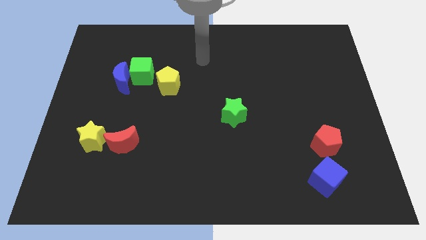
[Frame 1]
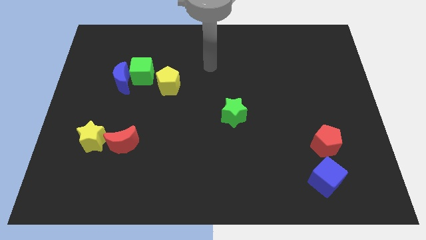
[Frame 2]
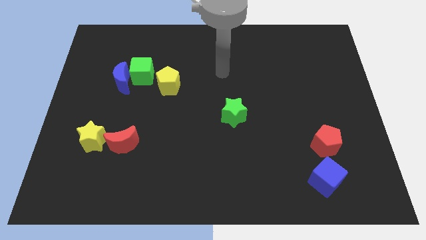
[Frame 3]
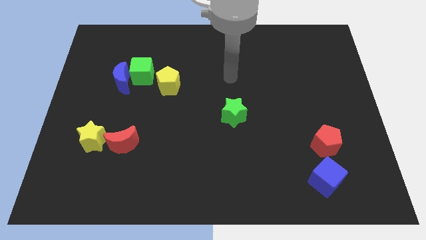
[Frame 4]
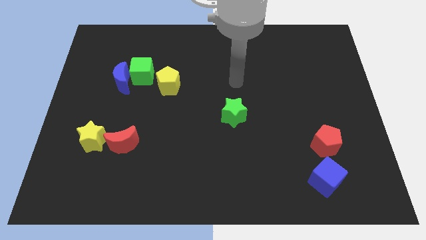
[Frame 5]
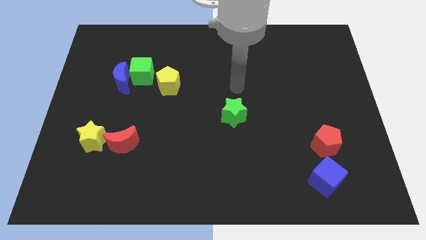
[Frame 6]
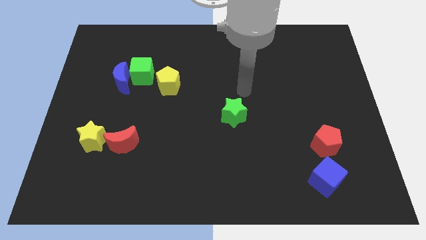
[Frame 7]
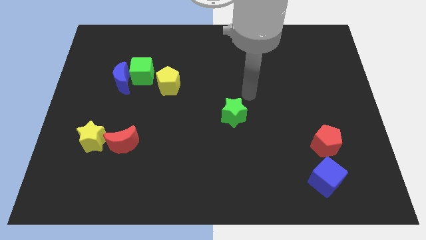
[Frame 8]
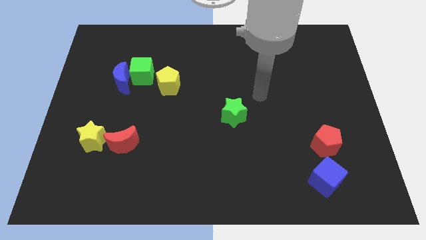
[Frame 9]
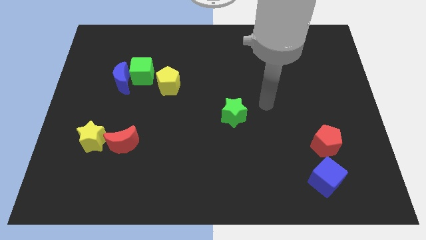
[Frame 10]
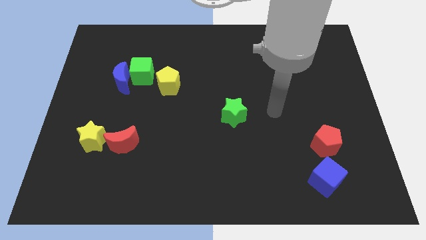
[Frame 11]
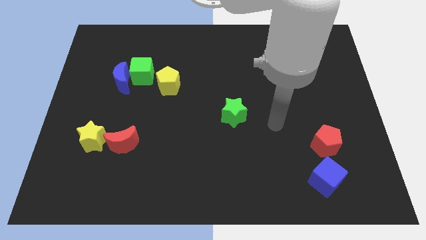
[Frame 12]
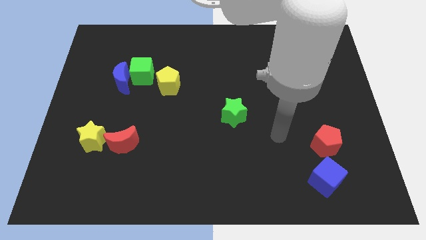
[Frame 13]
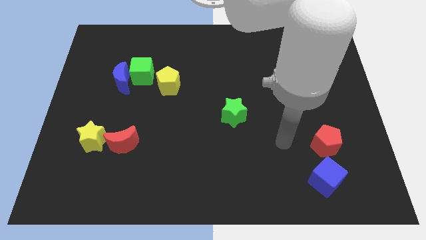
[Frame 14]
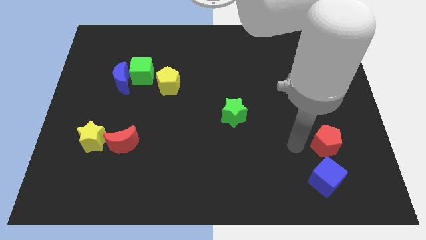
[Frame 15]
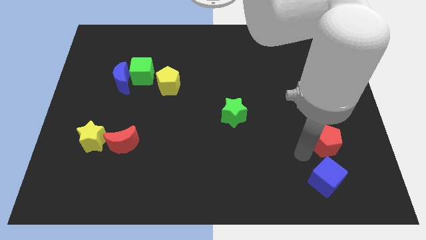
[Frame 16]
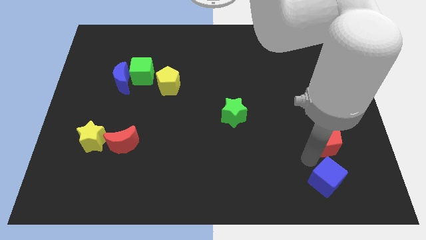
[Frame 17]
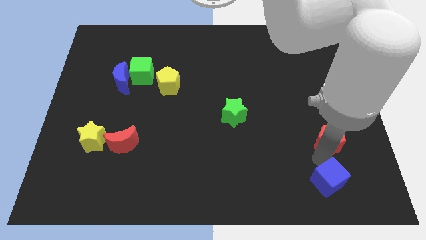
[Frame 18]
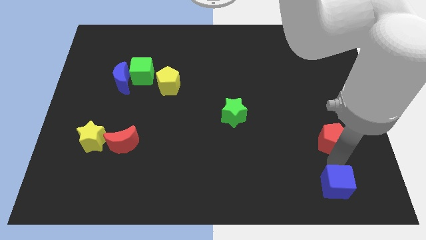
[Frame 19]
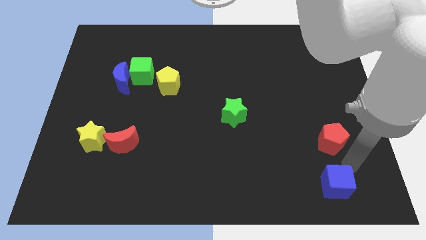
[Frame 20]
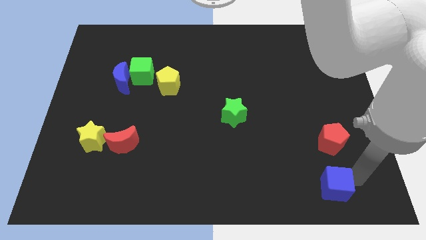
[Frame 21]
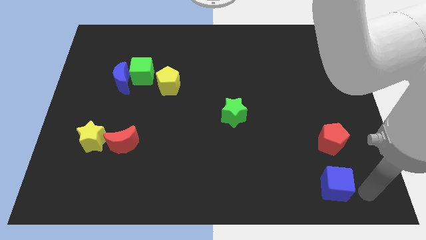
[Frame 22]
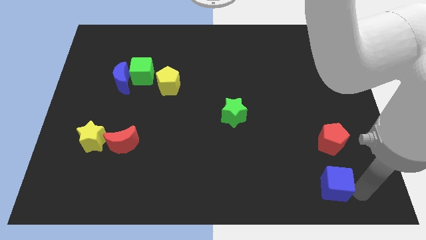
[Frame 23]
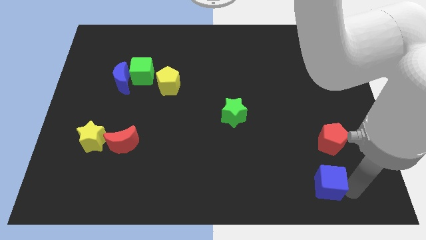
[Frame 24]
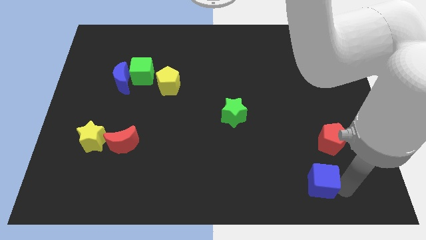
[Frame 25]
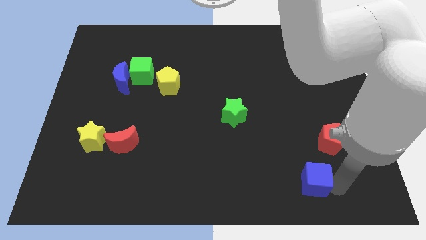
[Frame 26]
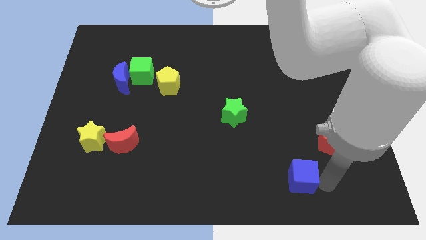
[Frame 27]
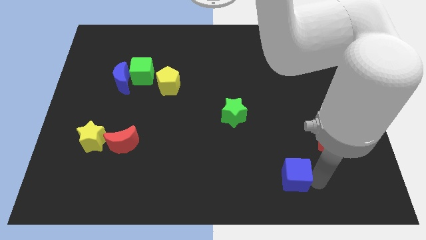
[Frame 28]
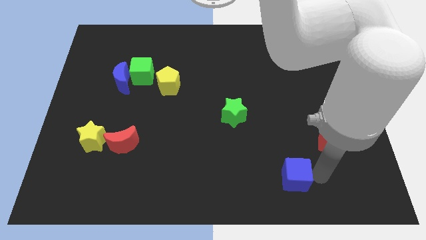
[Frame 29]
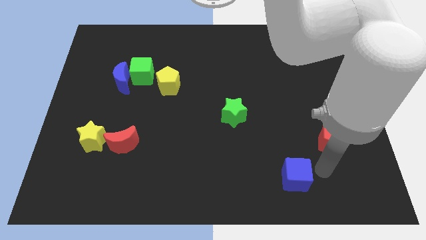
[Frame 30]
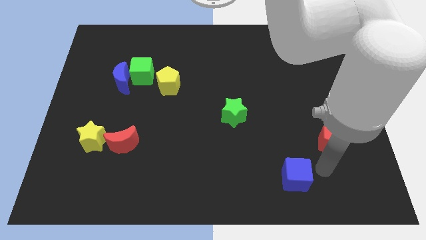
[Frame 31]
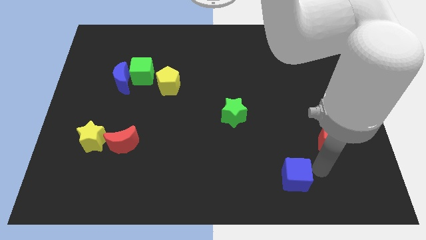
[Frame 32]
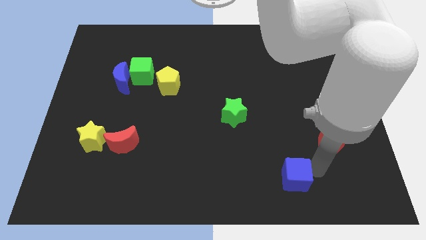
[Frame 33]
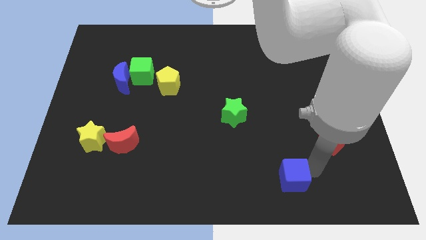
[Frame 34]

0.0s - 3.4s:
move the blue cube a bit left

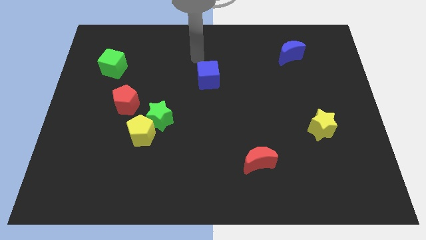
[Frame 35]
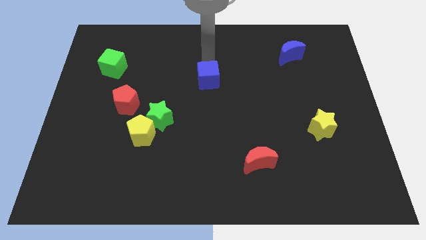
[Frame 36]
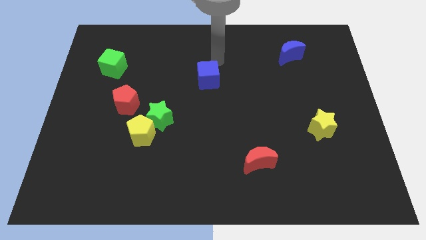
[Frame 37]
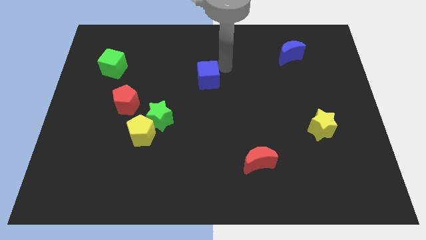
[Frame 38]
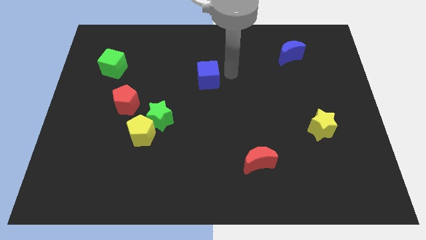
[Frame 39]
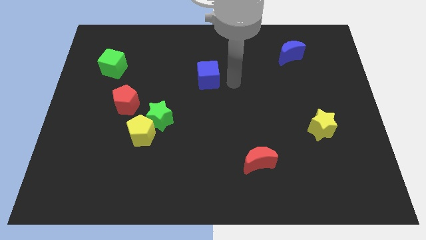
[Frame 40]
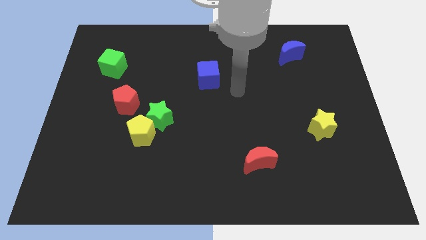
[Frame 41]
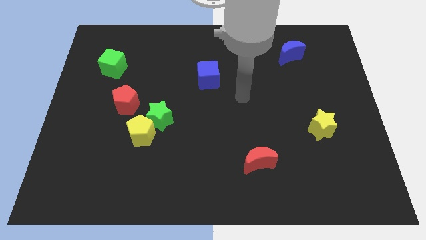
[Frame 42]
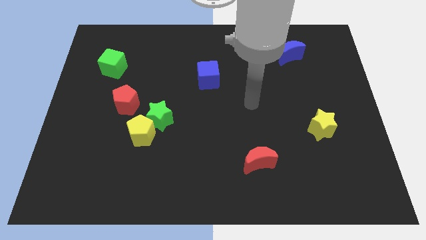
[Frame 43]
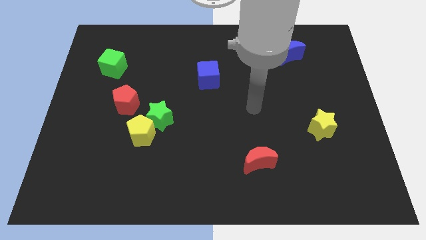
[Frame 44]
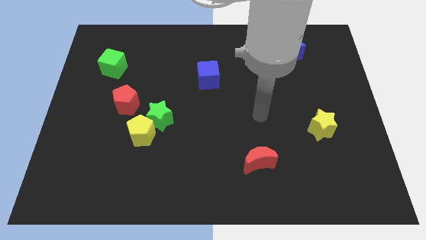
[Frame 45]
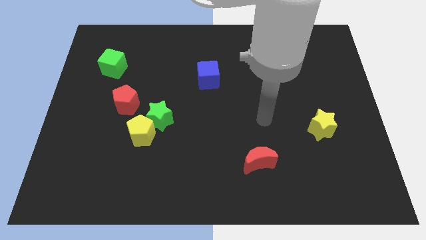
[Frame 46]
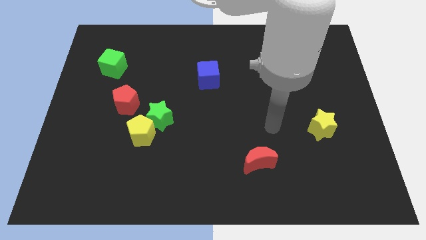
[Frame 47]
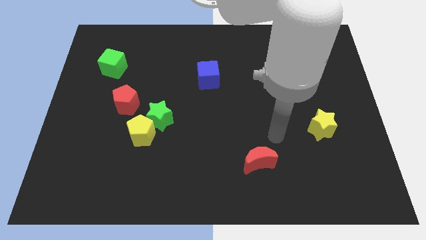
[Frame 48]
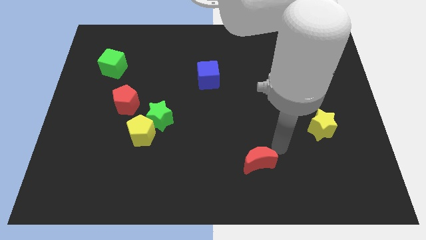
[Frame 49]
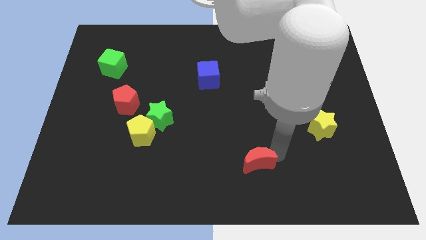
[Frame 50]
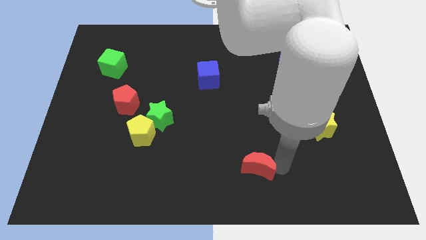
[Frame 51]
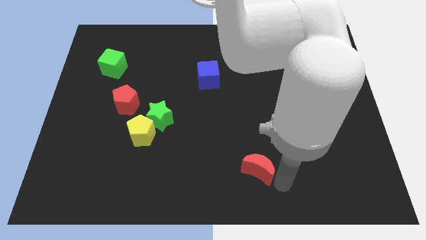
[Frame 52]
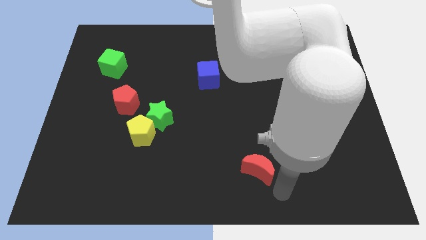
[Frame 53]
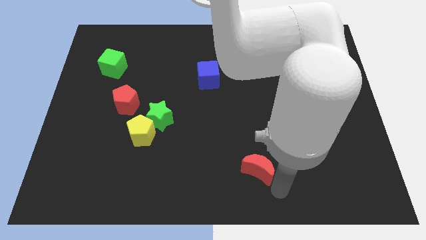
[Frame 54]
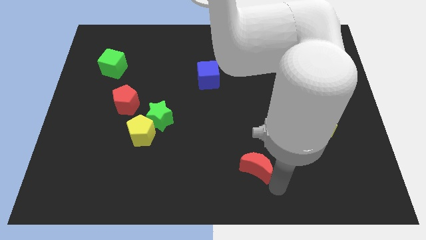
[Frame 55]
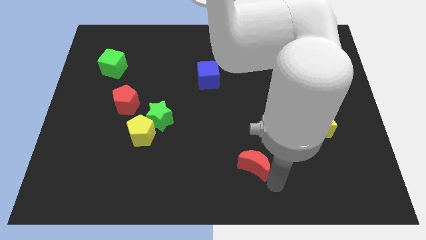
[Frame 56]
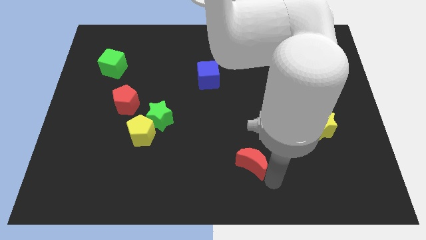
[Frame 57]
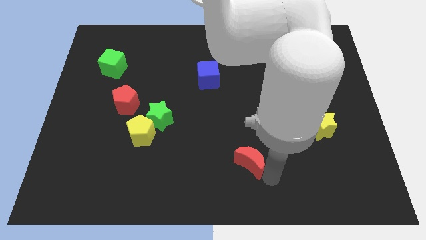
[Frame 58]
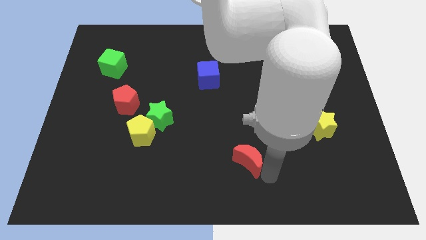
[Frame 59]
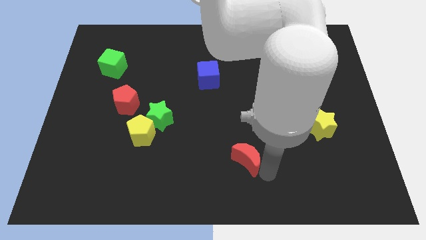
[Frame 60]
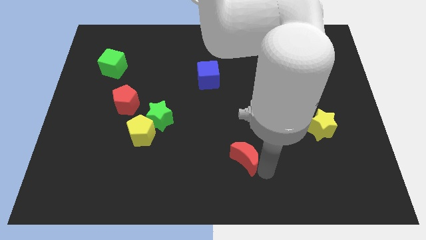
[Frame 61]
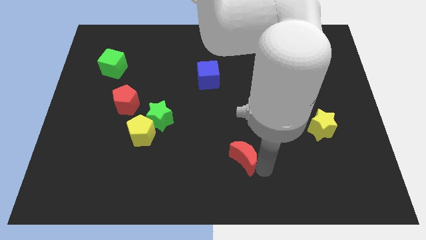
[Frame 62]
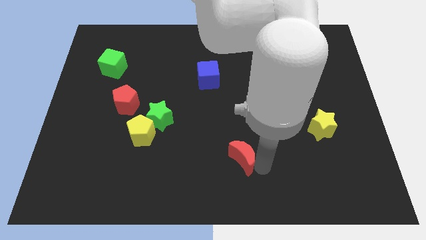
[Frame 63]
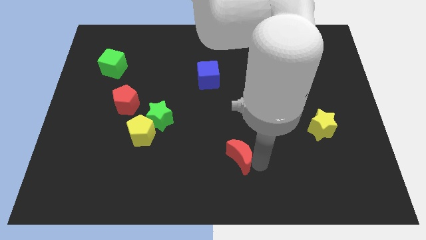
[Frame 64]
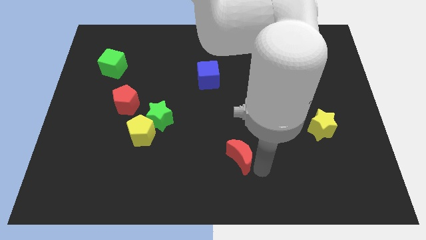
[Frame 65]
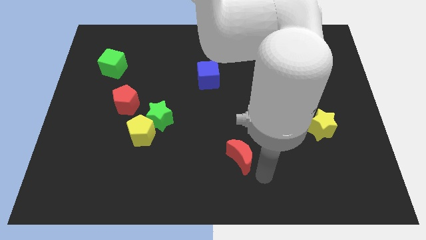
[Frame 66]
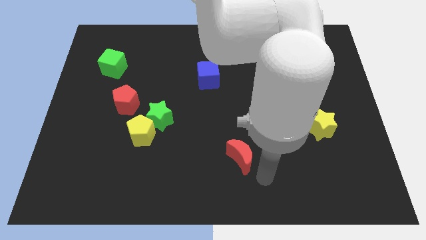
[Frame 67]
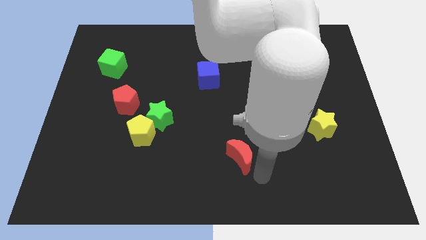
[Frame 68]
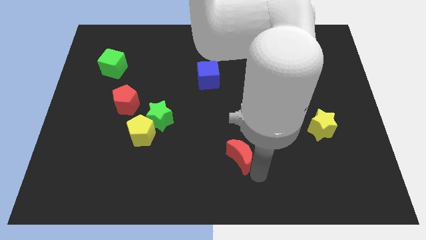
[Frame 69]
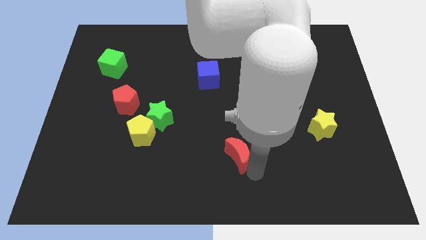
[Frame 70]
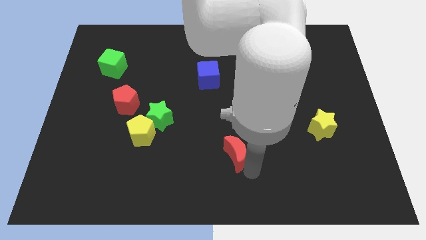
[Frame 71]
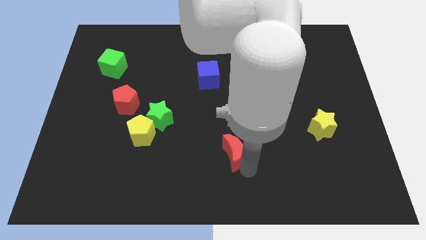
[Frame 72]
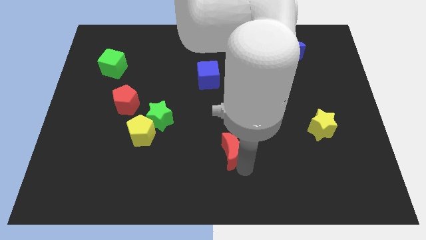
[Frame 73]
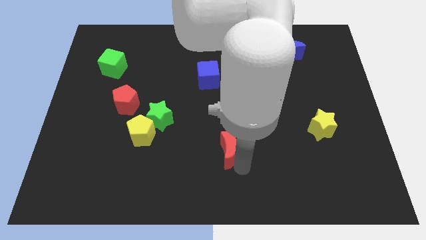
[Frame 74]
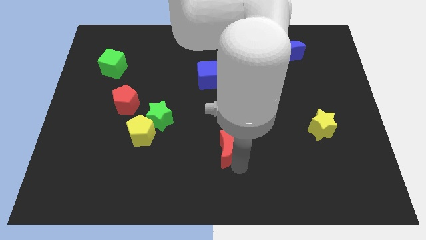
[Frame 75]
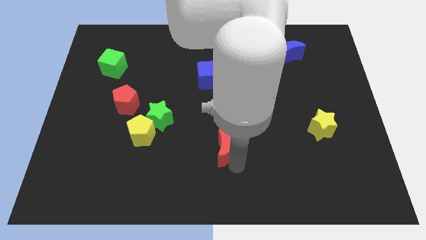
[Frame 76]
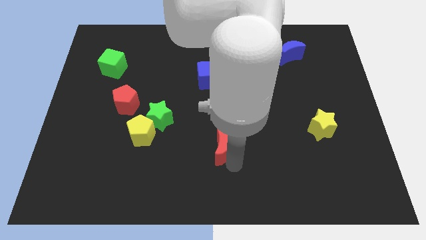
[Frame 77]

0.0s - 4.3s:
slightly move the red moon up and left diagonally

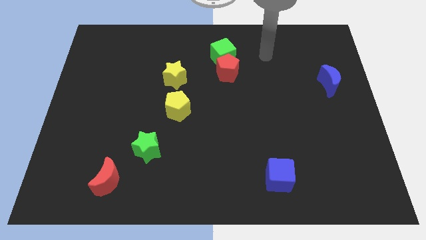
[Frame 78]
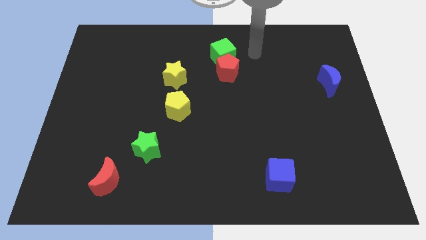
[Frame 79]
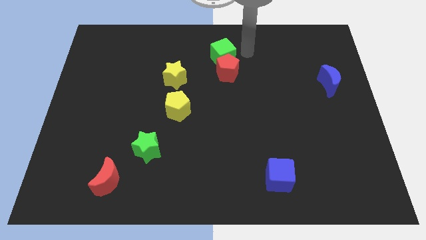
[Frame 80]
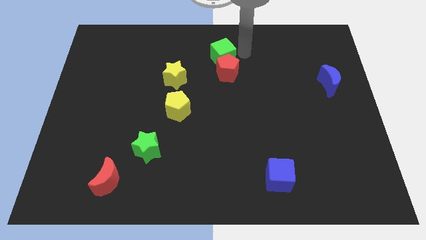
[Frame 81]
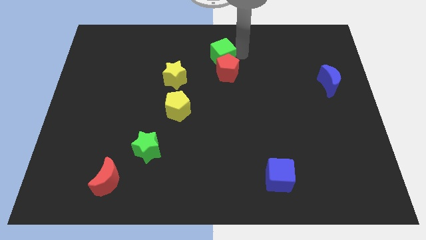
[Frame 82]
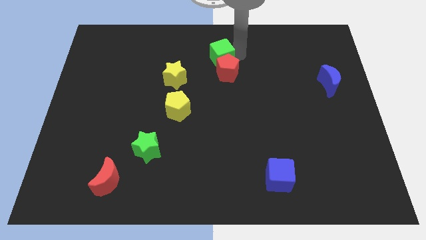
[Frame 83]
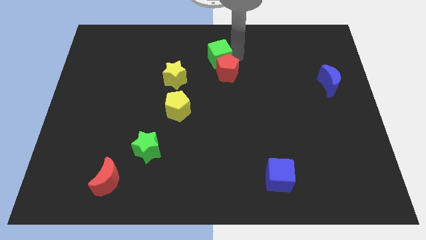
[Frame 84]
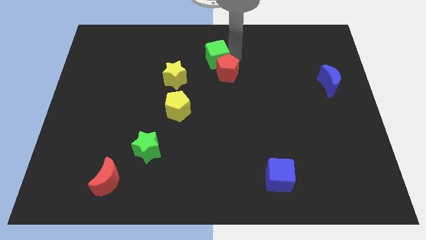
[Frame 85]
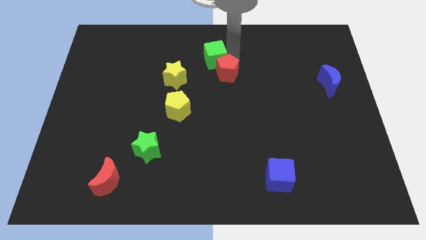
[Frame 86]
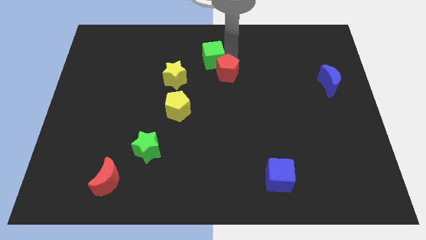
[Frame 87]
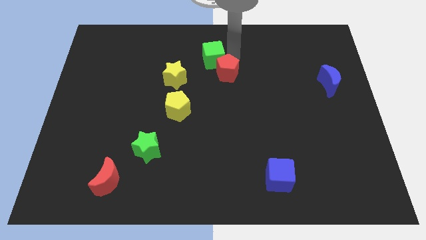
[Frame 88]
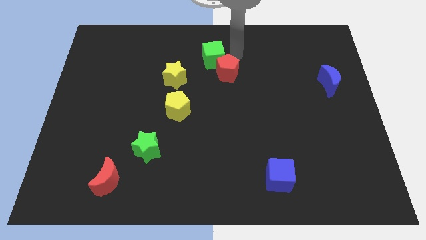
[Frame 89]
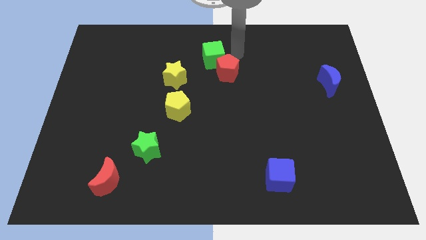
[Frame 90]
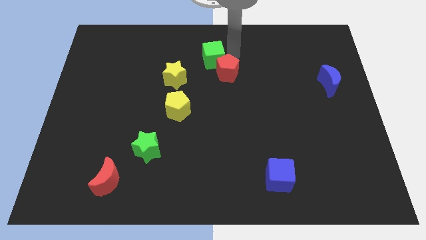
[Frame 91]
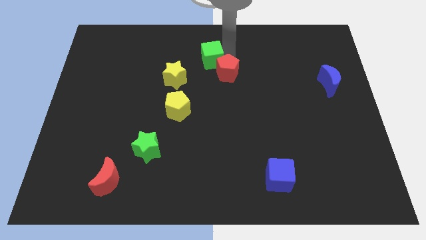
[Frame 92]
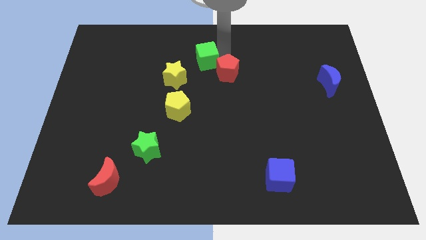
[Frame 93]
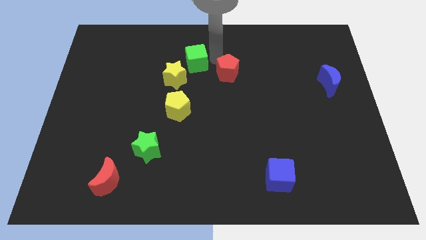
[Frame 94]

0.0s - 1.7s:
move the green cube somewhat left
